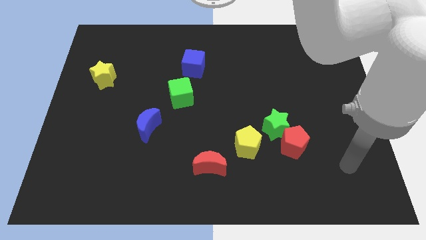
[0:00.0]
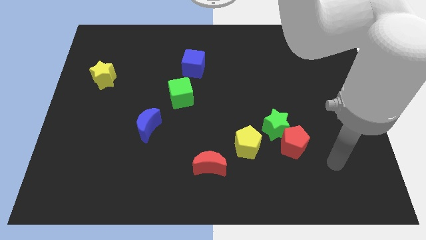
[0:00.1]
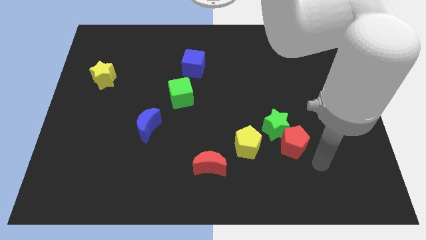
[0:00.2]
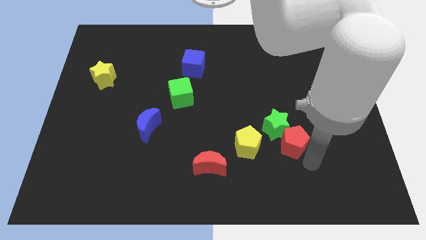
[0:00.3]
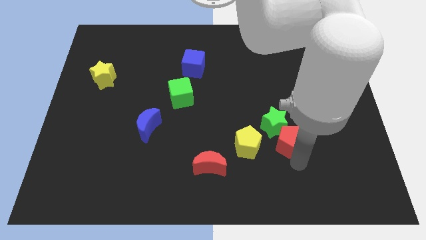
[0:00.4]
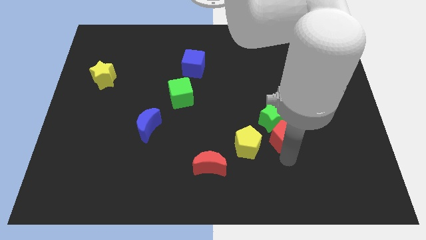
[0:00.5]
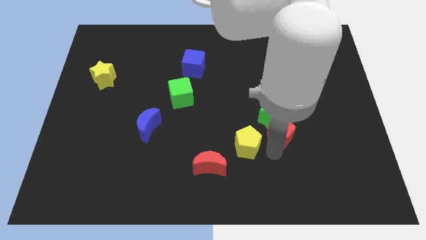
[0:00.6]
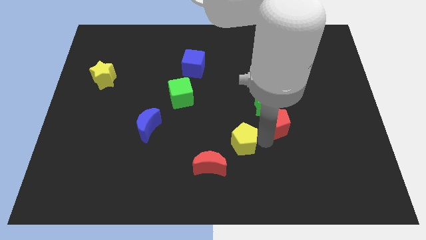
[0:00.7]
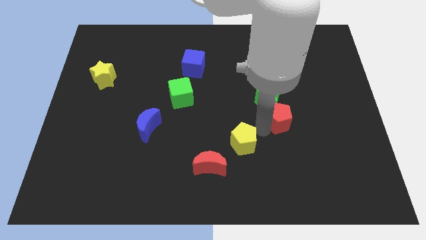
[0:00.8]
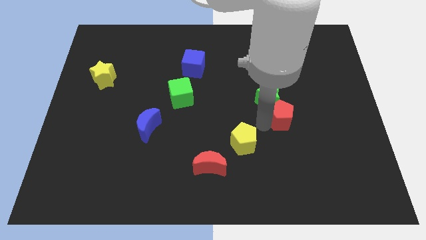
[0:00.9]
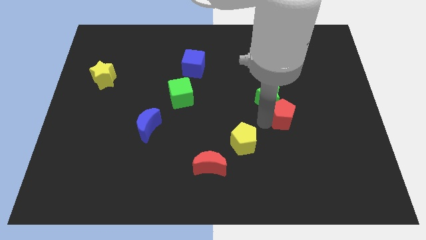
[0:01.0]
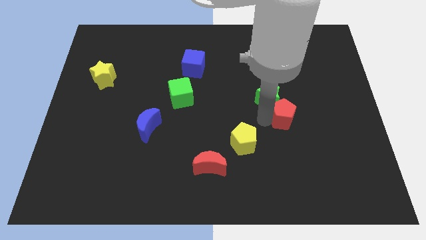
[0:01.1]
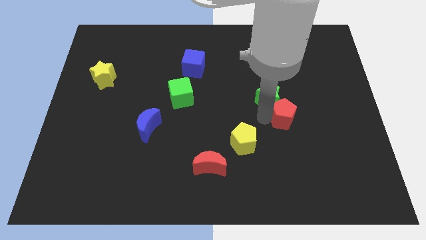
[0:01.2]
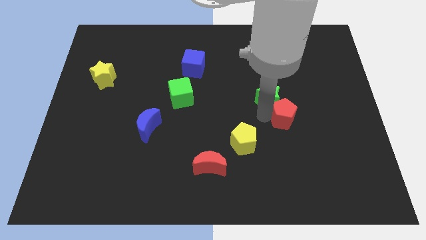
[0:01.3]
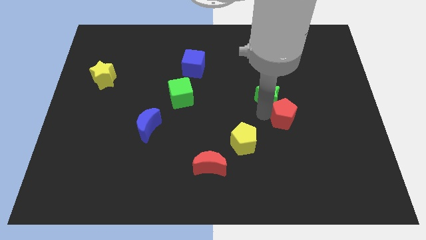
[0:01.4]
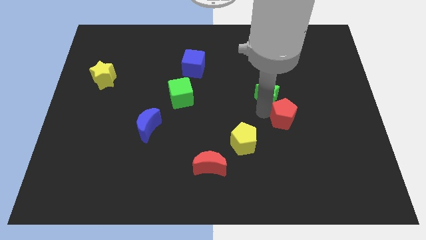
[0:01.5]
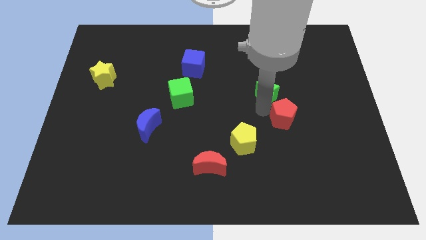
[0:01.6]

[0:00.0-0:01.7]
pull the green star apart from the red pentagon and yellow pentagon

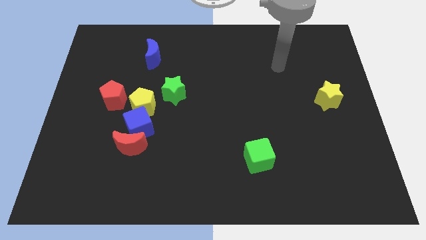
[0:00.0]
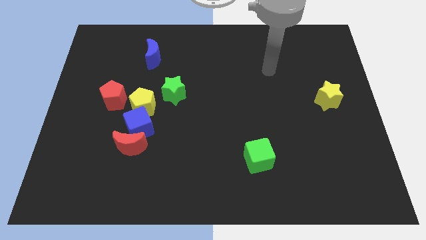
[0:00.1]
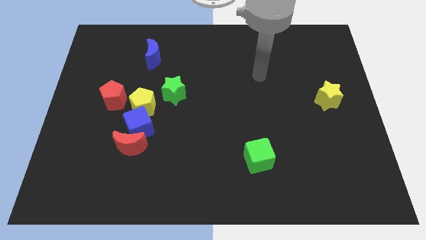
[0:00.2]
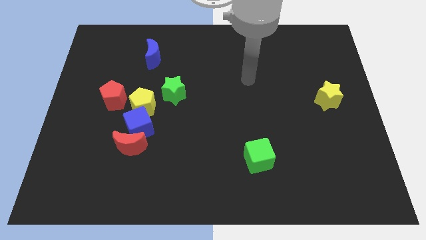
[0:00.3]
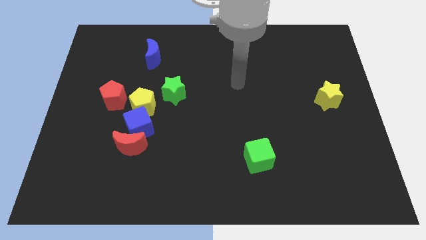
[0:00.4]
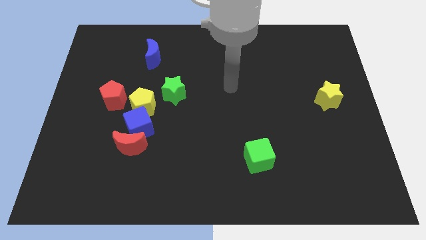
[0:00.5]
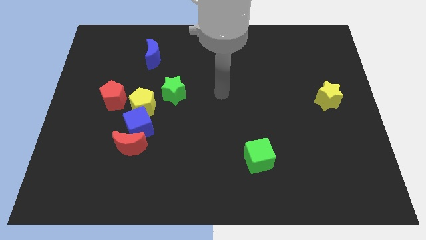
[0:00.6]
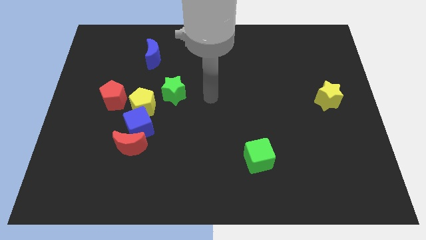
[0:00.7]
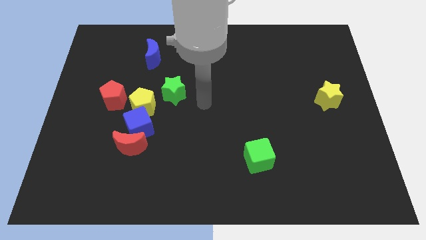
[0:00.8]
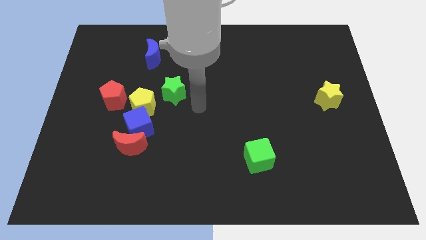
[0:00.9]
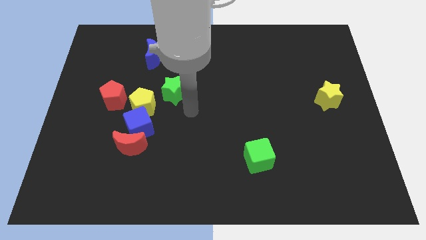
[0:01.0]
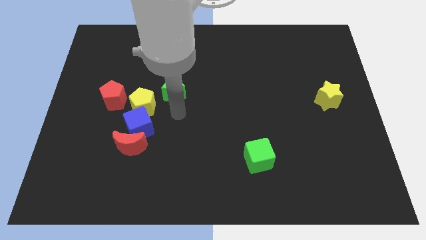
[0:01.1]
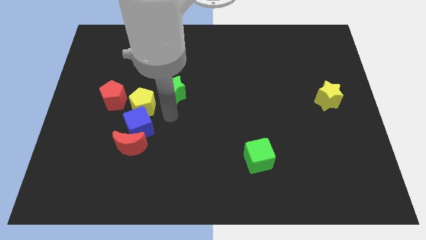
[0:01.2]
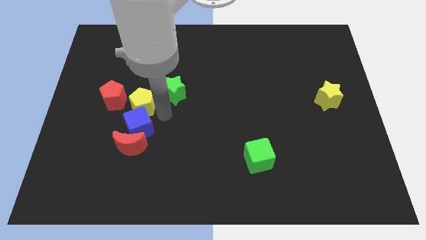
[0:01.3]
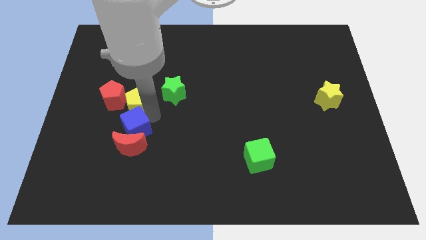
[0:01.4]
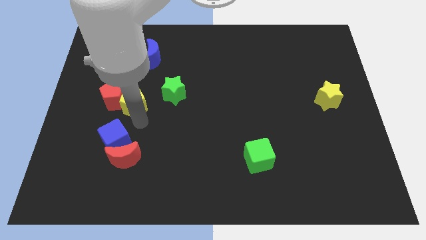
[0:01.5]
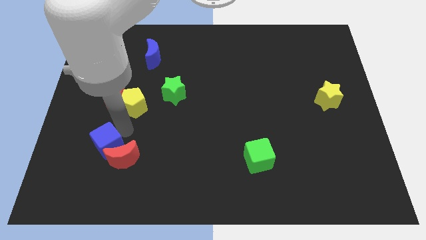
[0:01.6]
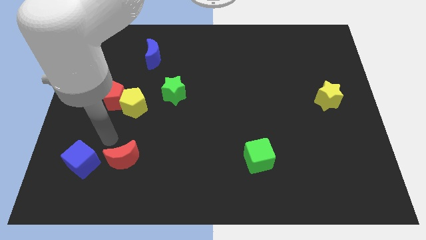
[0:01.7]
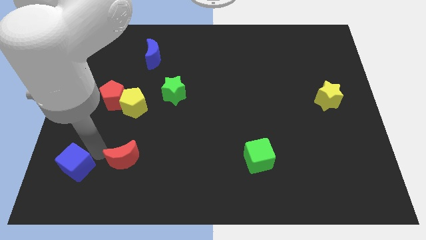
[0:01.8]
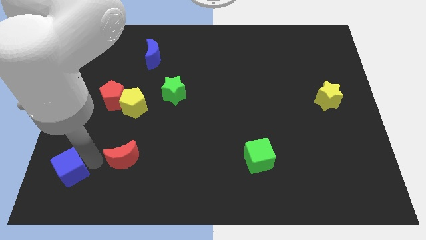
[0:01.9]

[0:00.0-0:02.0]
separate the red moon from the blue cube

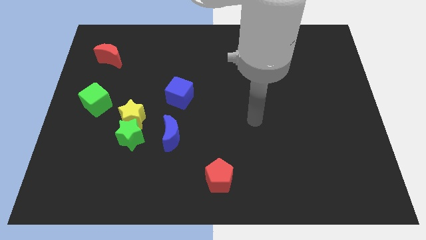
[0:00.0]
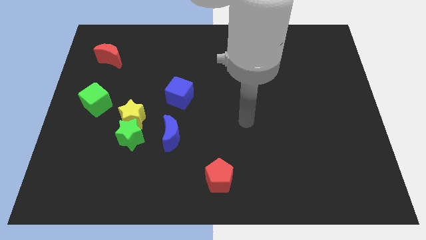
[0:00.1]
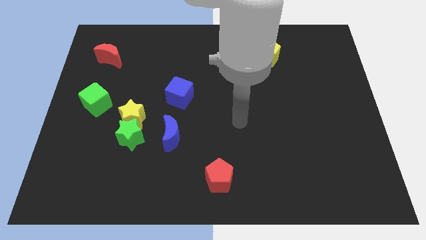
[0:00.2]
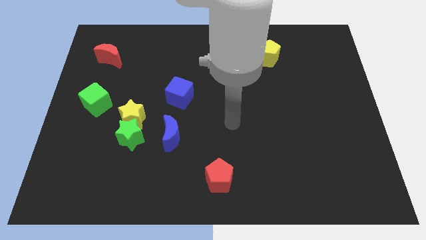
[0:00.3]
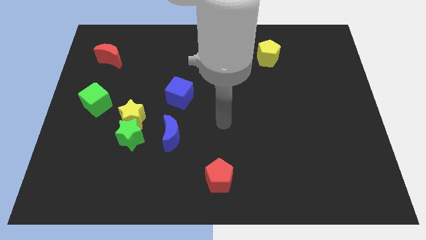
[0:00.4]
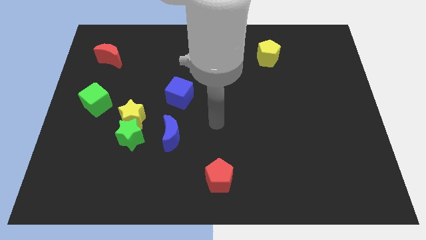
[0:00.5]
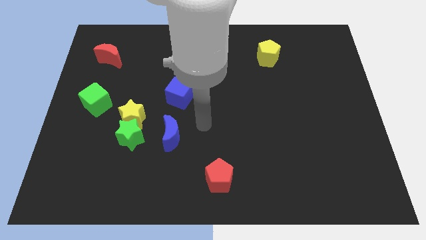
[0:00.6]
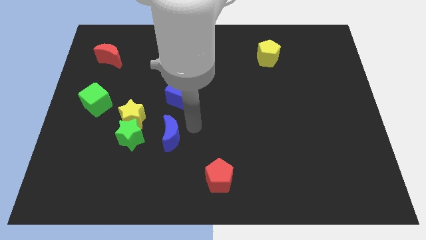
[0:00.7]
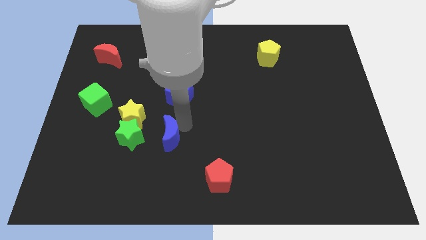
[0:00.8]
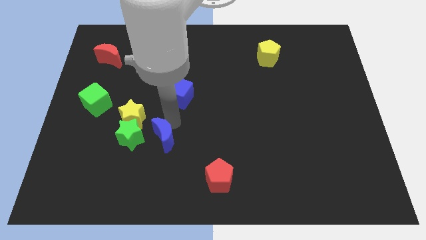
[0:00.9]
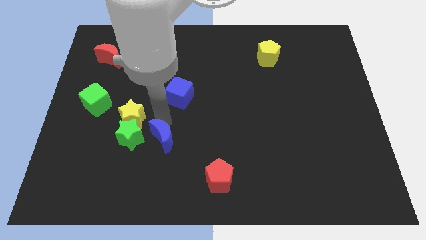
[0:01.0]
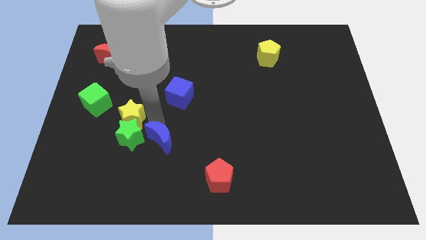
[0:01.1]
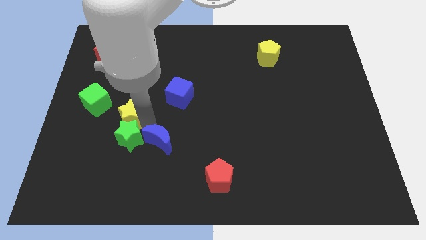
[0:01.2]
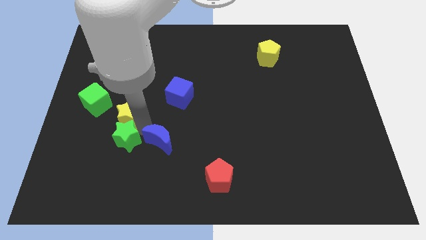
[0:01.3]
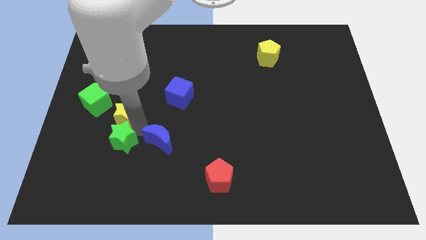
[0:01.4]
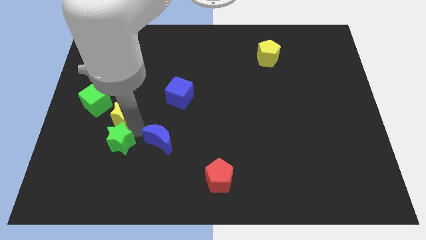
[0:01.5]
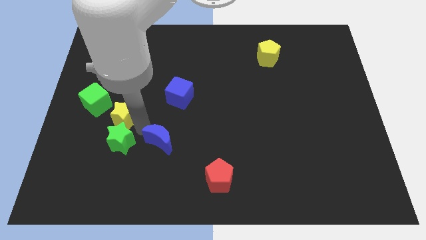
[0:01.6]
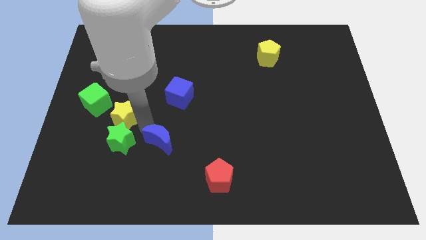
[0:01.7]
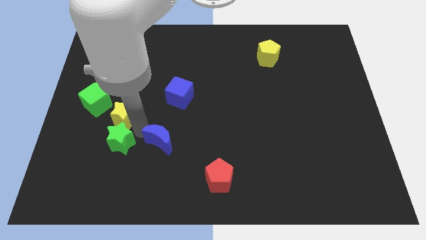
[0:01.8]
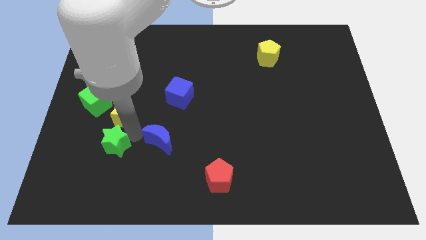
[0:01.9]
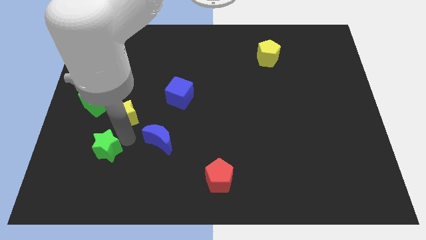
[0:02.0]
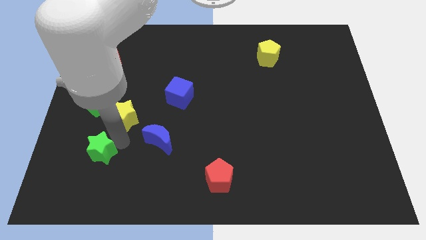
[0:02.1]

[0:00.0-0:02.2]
pull the green star apart from the yellow star and blue moon

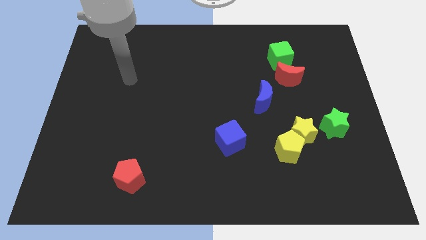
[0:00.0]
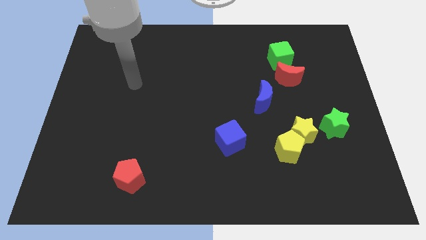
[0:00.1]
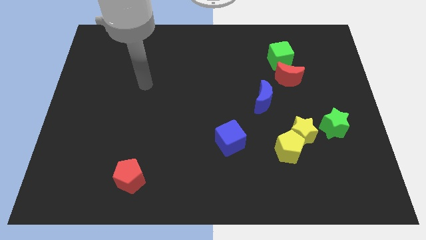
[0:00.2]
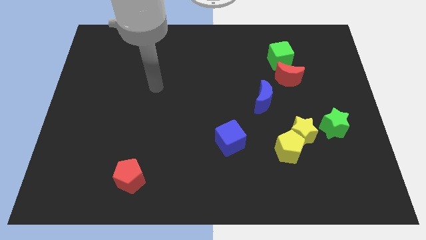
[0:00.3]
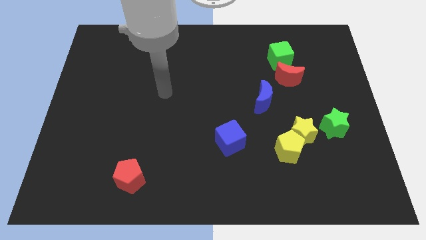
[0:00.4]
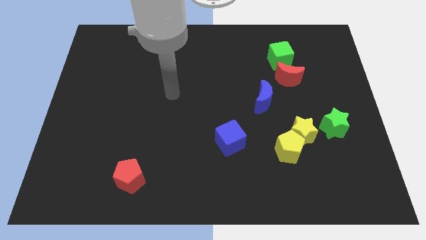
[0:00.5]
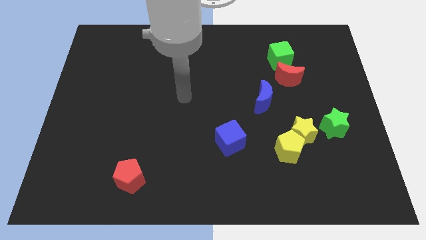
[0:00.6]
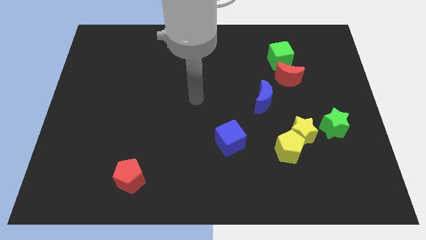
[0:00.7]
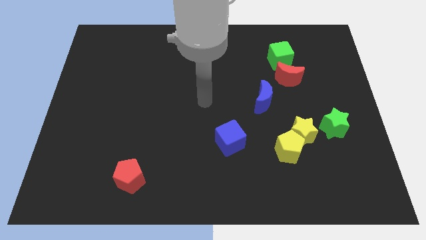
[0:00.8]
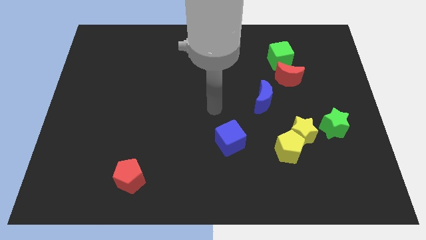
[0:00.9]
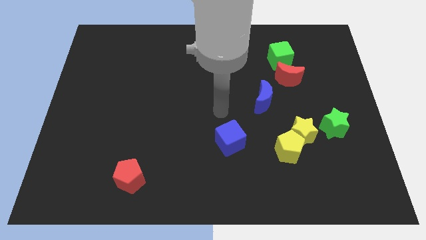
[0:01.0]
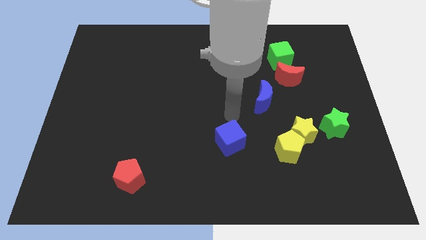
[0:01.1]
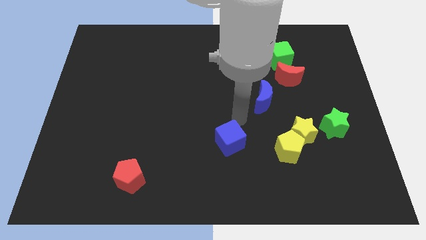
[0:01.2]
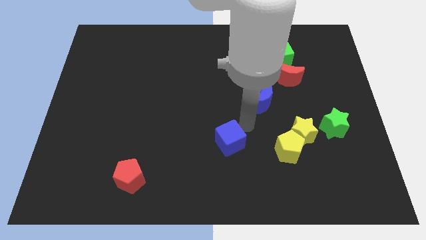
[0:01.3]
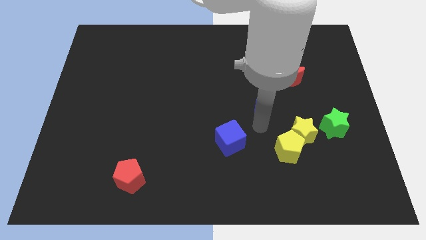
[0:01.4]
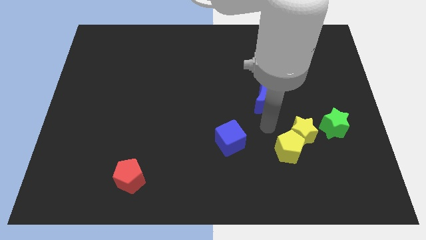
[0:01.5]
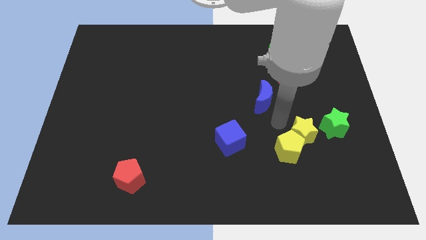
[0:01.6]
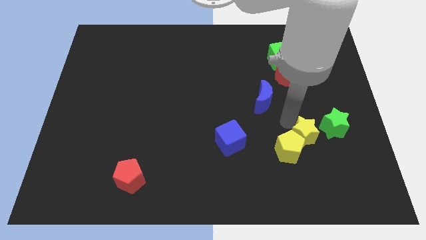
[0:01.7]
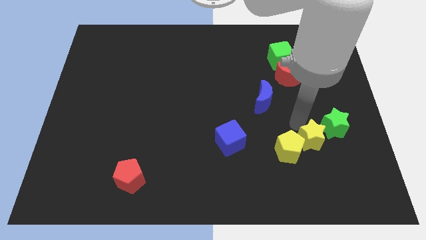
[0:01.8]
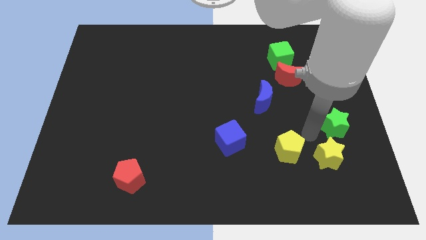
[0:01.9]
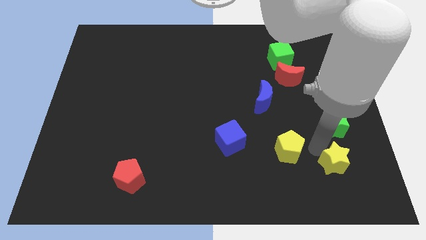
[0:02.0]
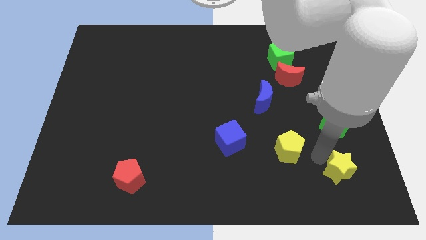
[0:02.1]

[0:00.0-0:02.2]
pull the yellow pentagon apart from the yellow star

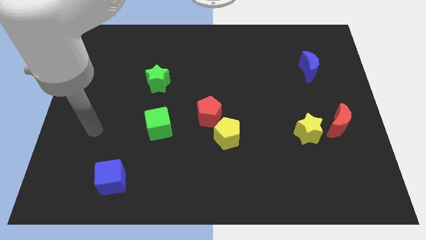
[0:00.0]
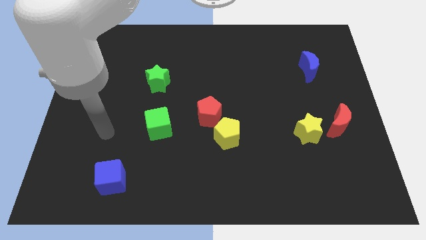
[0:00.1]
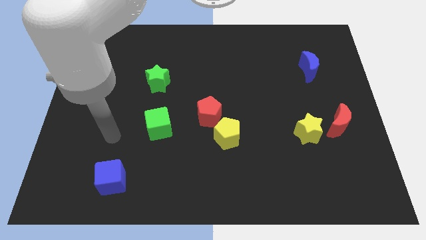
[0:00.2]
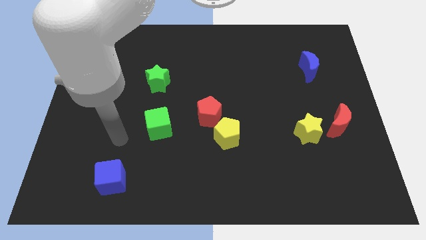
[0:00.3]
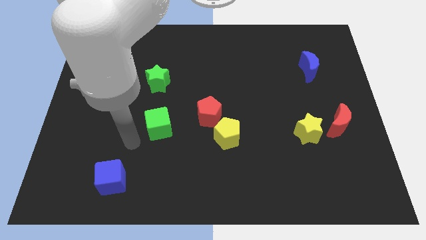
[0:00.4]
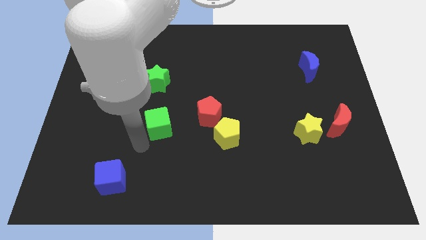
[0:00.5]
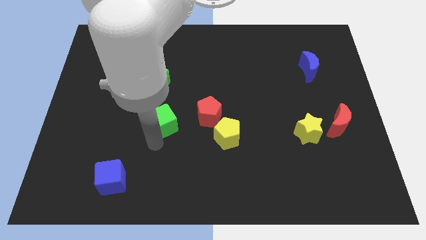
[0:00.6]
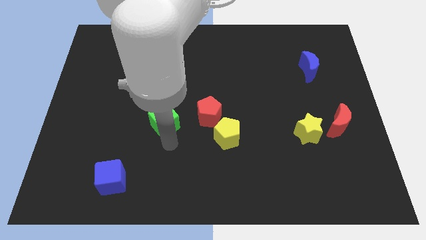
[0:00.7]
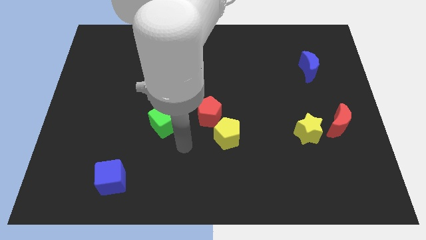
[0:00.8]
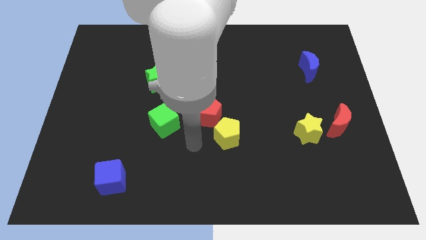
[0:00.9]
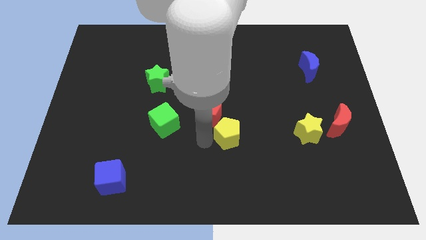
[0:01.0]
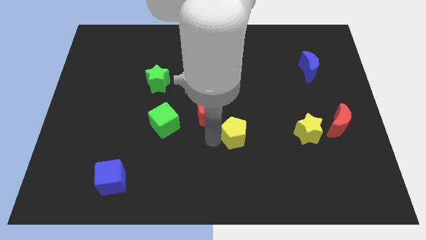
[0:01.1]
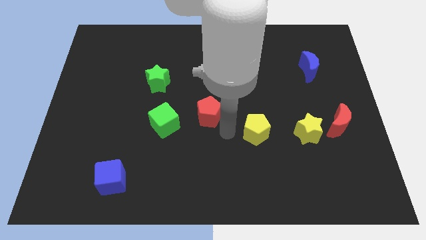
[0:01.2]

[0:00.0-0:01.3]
move the red pentagon away from the yellow pentagon
